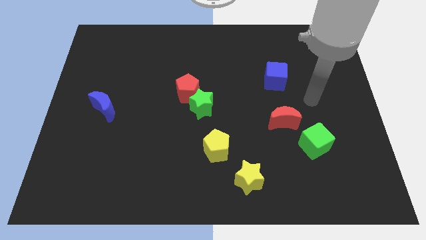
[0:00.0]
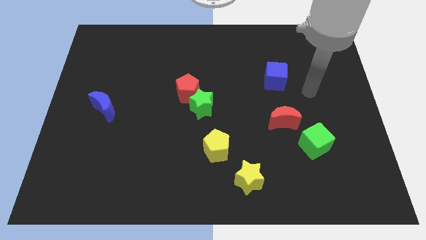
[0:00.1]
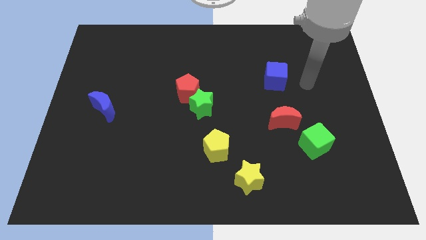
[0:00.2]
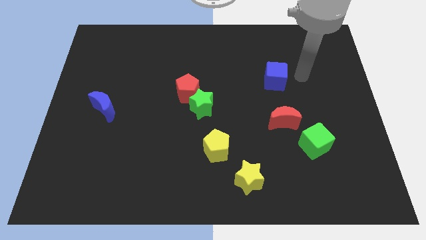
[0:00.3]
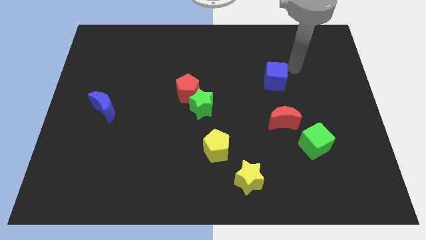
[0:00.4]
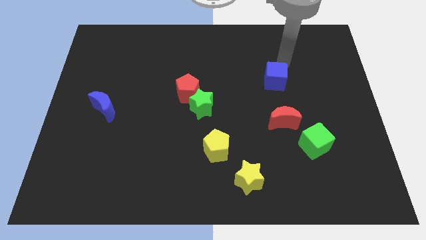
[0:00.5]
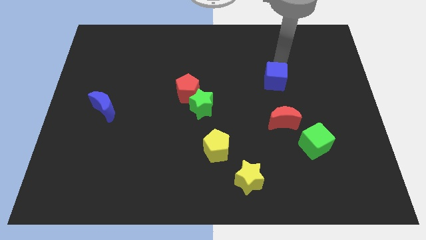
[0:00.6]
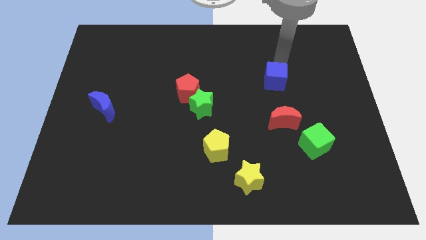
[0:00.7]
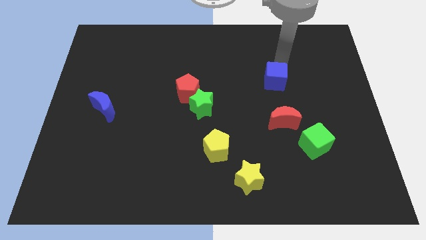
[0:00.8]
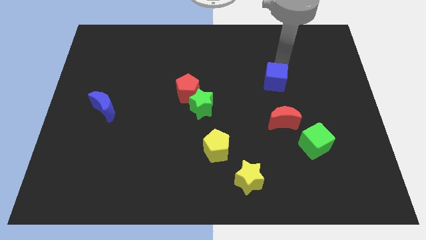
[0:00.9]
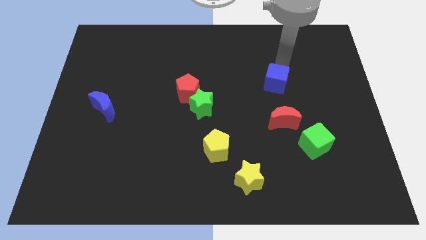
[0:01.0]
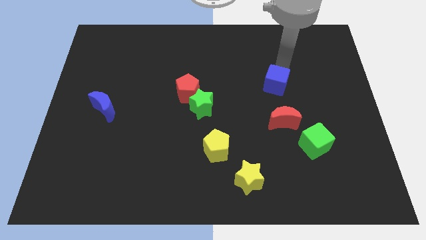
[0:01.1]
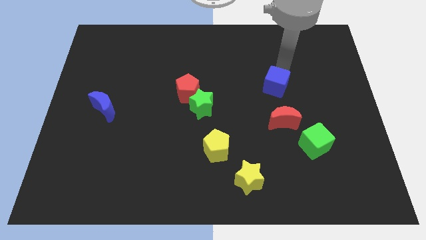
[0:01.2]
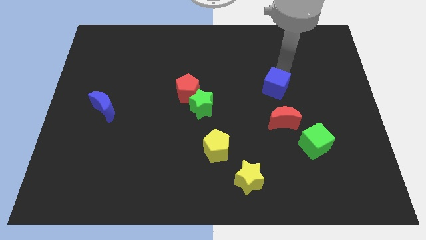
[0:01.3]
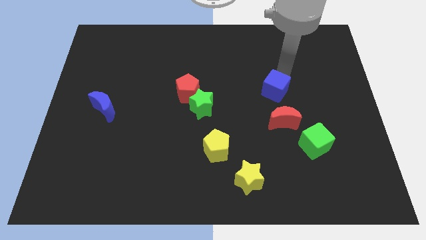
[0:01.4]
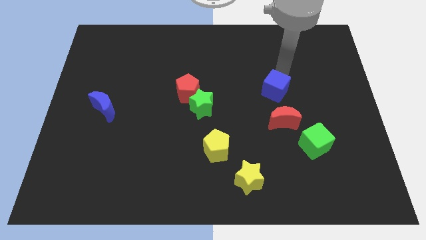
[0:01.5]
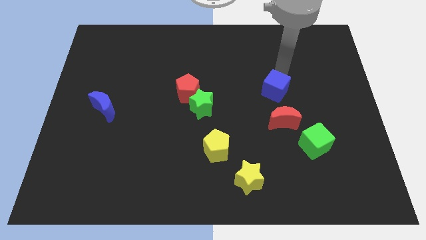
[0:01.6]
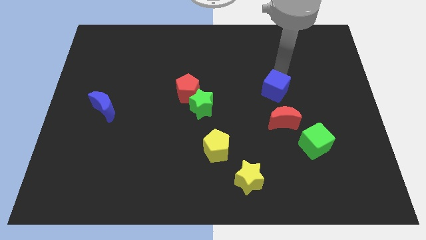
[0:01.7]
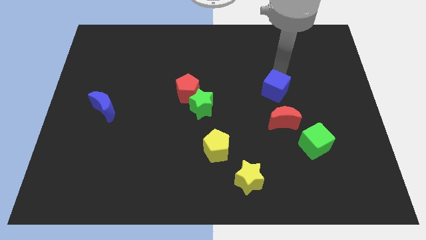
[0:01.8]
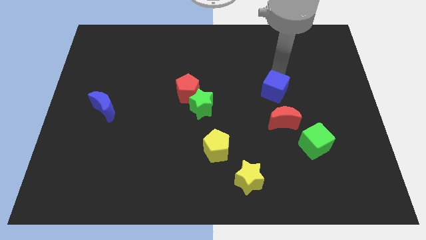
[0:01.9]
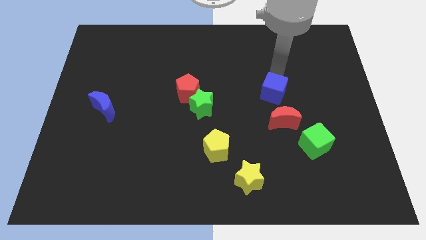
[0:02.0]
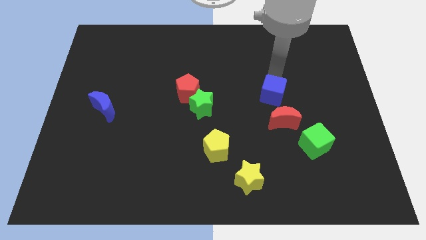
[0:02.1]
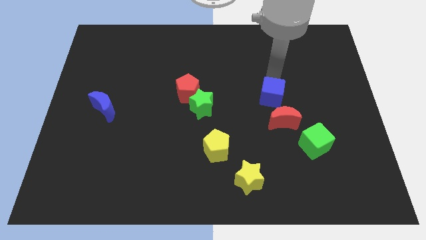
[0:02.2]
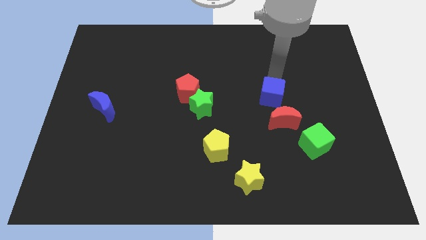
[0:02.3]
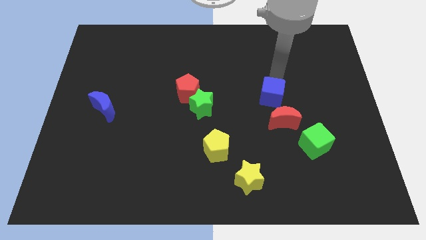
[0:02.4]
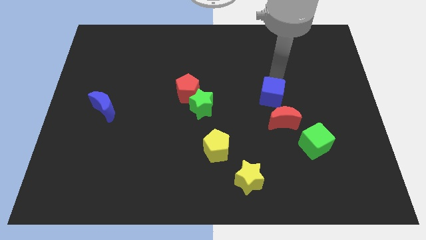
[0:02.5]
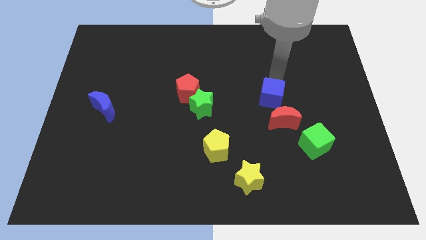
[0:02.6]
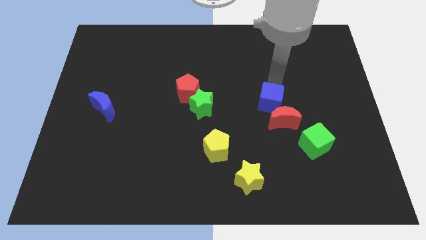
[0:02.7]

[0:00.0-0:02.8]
slightly push the blue cube down

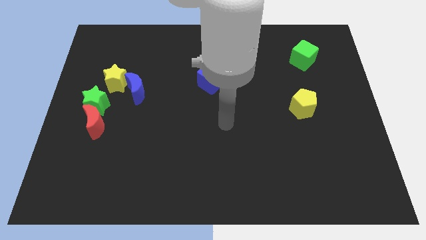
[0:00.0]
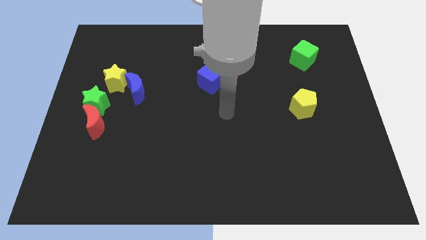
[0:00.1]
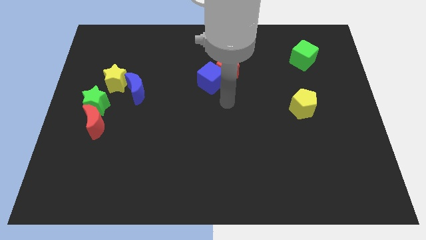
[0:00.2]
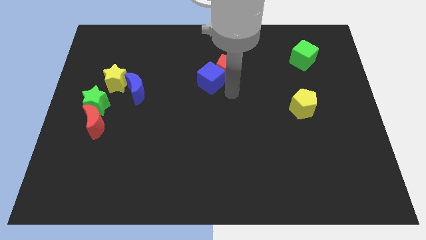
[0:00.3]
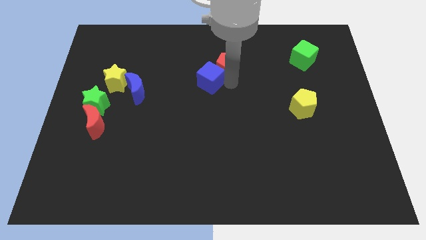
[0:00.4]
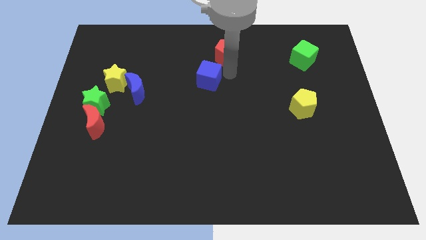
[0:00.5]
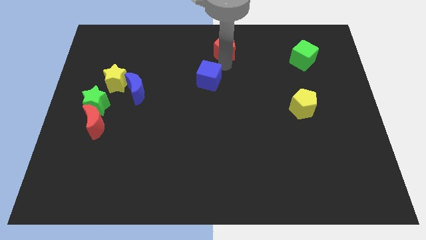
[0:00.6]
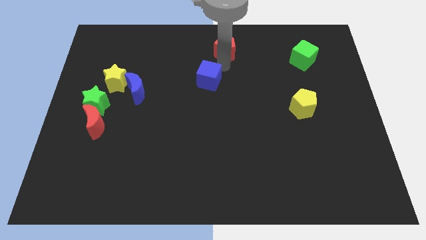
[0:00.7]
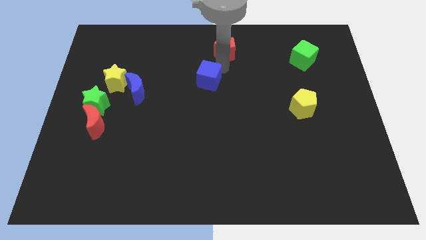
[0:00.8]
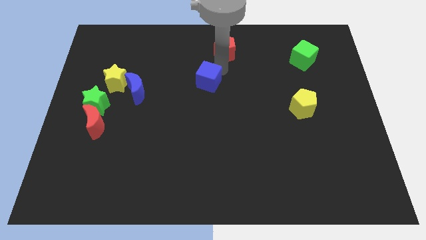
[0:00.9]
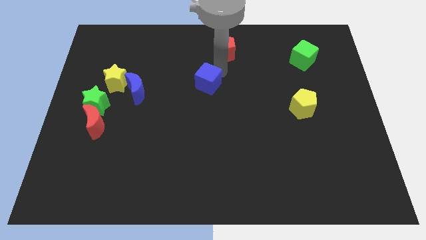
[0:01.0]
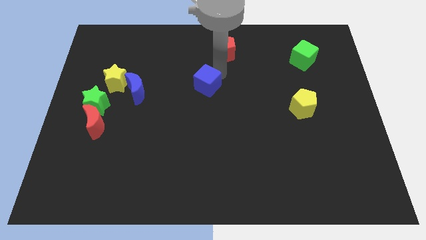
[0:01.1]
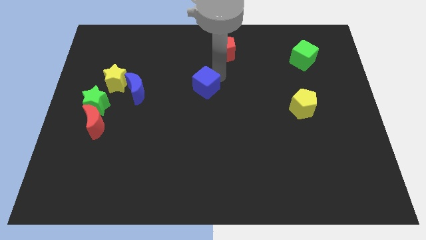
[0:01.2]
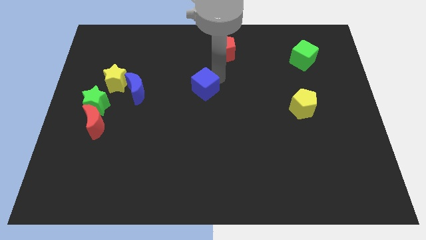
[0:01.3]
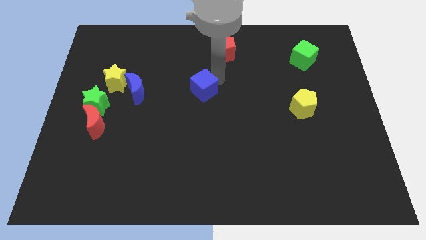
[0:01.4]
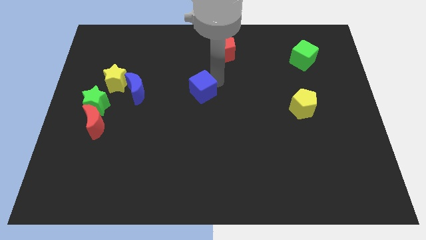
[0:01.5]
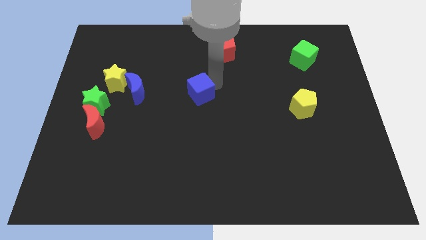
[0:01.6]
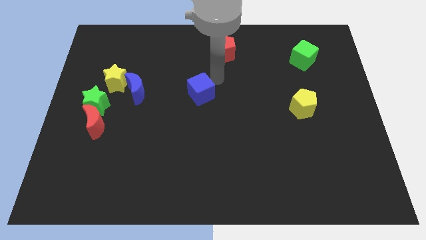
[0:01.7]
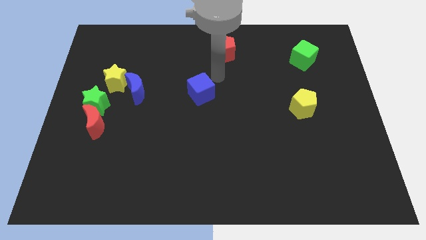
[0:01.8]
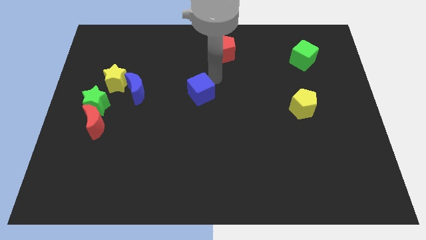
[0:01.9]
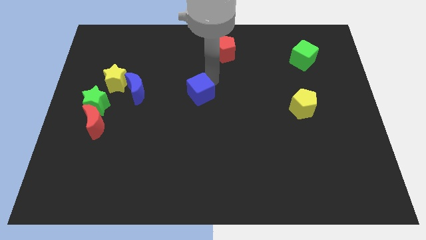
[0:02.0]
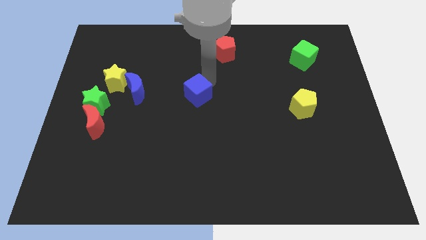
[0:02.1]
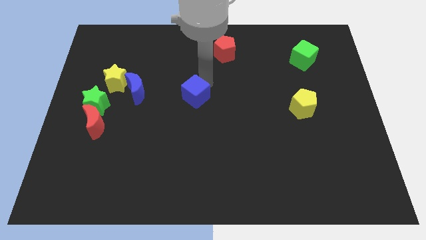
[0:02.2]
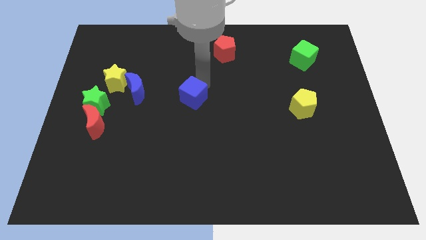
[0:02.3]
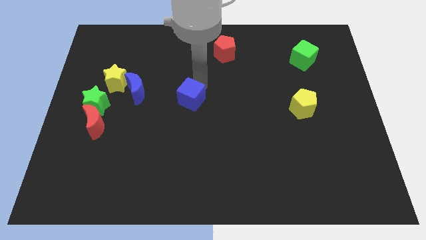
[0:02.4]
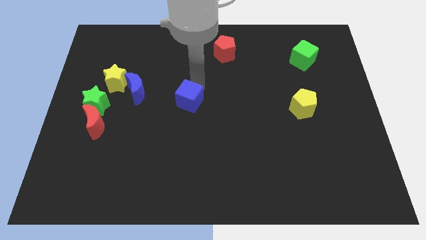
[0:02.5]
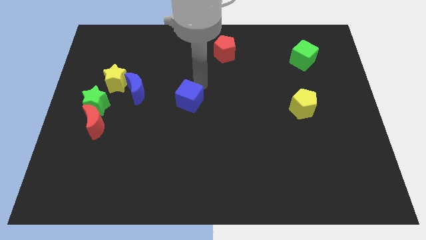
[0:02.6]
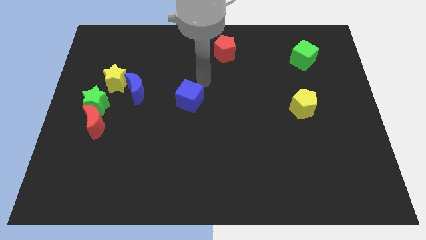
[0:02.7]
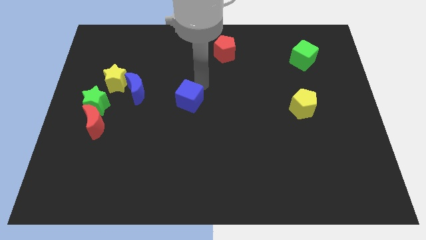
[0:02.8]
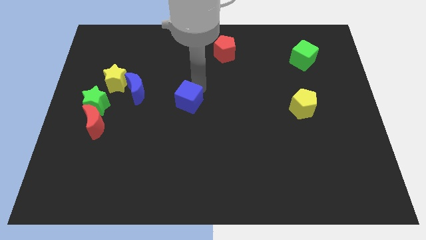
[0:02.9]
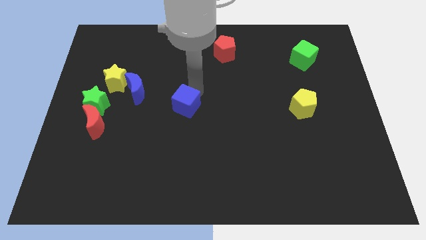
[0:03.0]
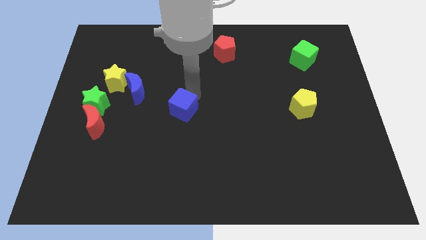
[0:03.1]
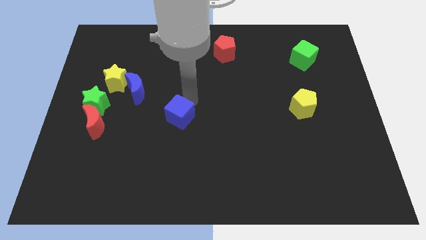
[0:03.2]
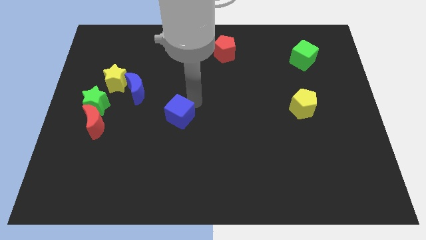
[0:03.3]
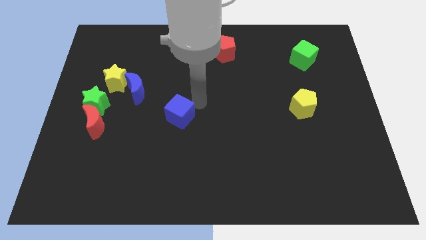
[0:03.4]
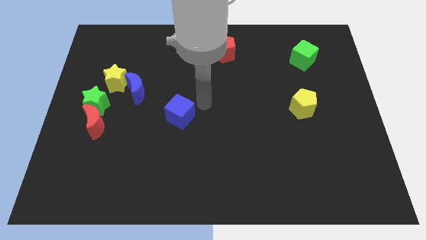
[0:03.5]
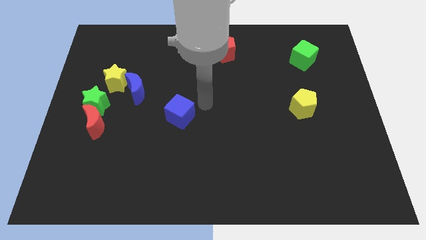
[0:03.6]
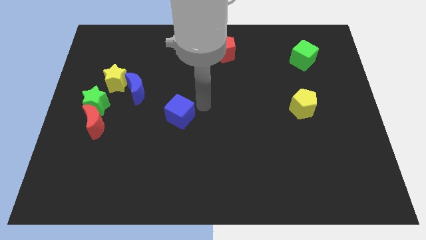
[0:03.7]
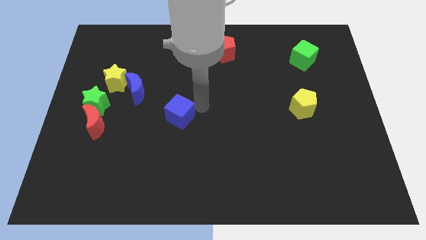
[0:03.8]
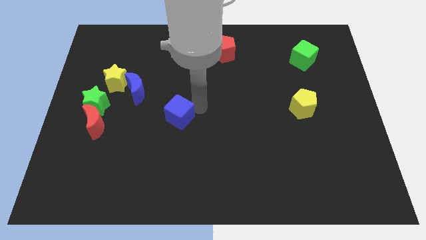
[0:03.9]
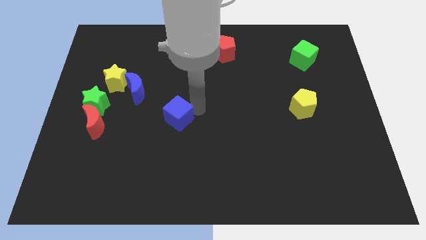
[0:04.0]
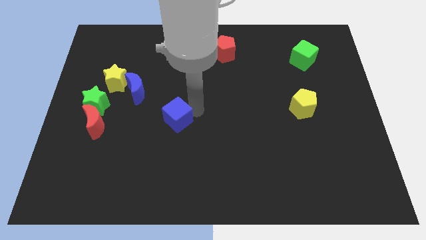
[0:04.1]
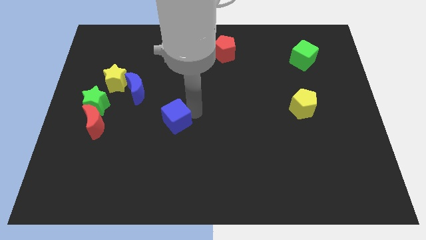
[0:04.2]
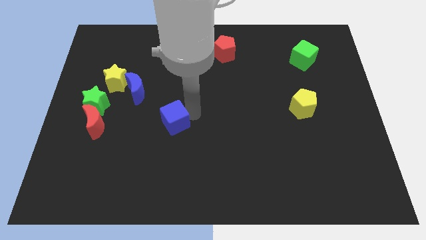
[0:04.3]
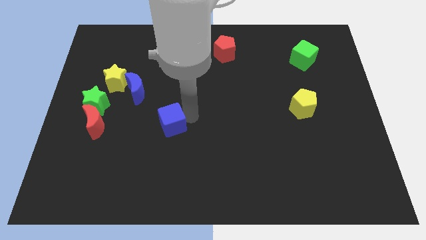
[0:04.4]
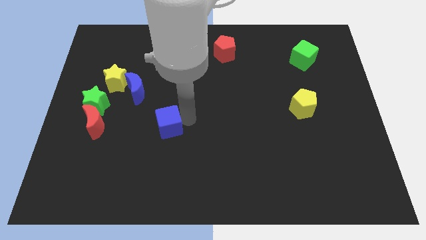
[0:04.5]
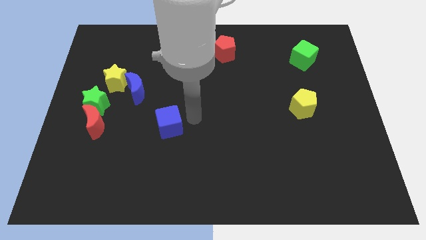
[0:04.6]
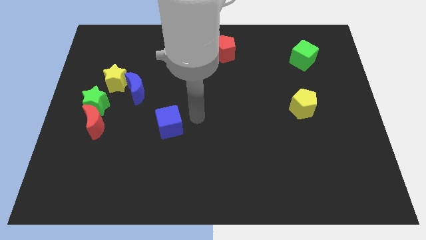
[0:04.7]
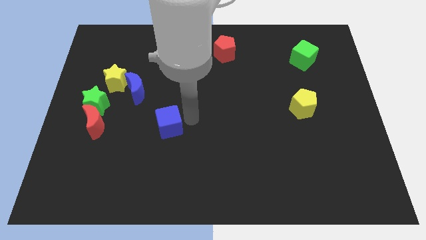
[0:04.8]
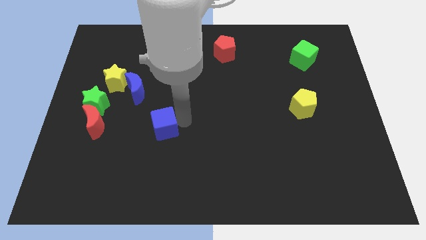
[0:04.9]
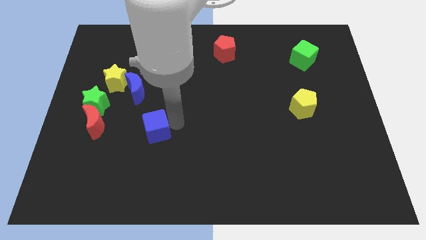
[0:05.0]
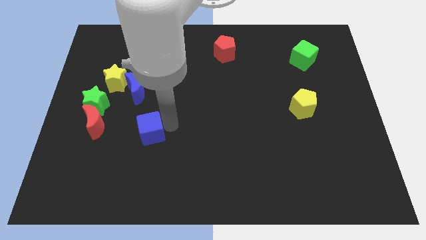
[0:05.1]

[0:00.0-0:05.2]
slide the blue cube downwards and then to the left

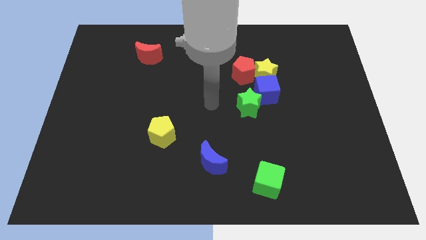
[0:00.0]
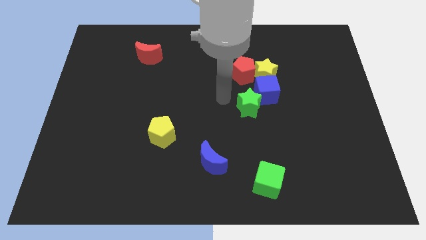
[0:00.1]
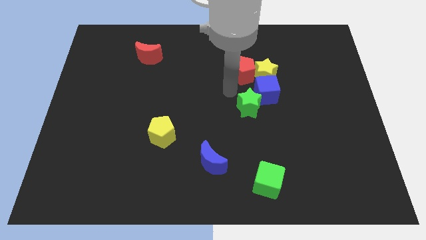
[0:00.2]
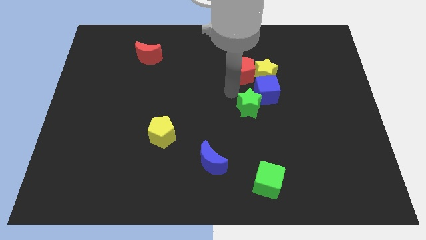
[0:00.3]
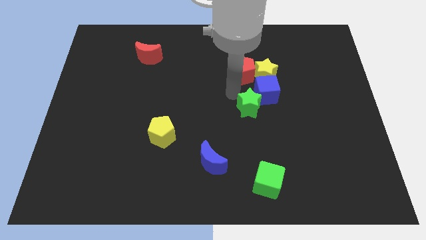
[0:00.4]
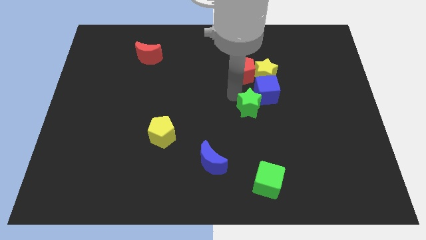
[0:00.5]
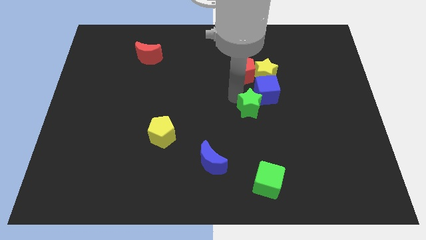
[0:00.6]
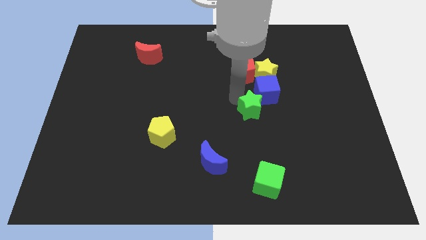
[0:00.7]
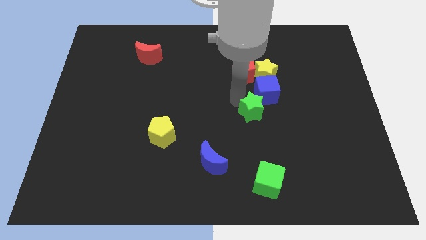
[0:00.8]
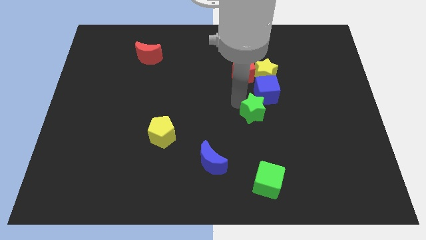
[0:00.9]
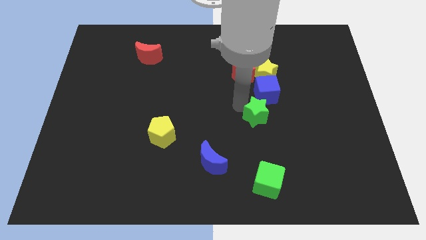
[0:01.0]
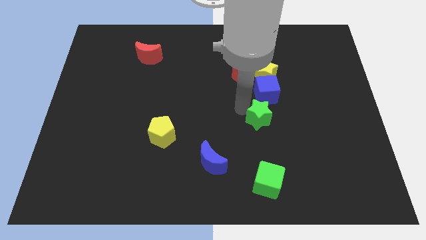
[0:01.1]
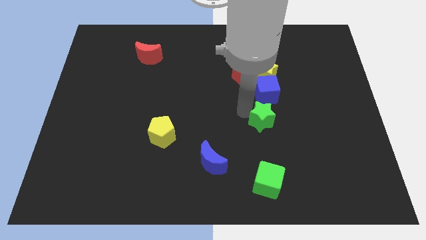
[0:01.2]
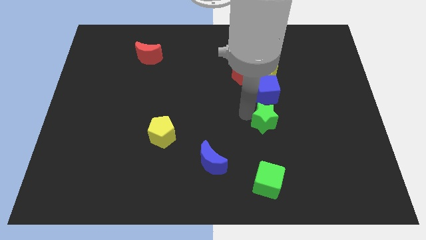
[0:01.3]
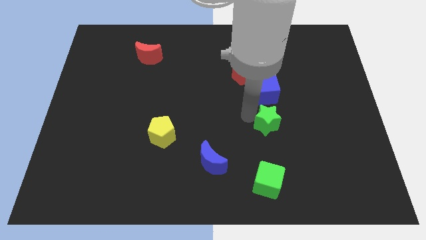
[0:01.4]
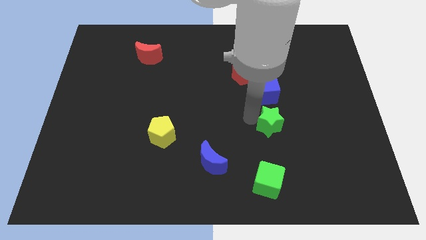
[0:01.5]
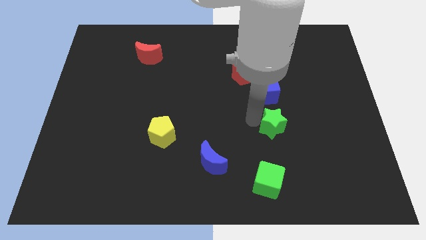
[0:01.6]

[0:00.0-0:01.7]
move the green star diagonally down and to the right a bit
